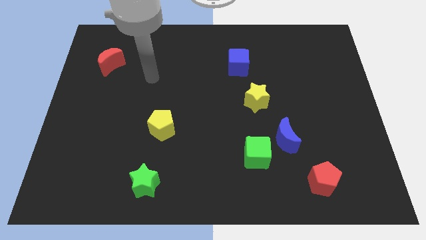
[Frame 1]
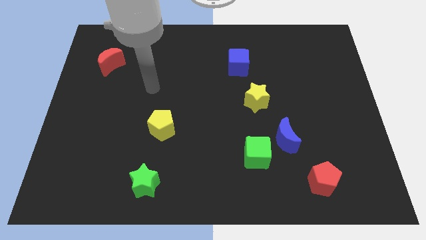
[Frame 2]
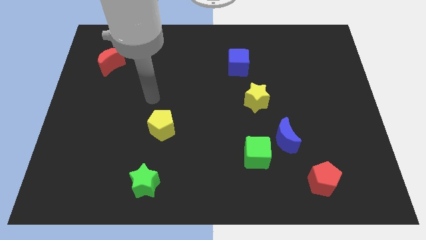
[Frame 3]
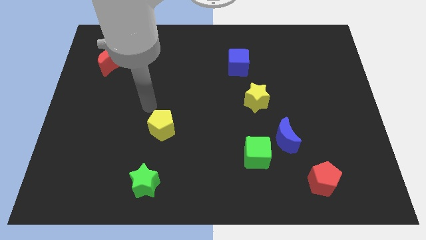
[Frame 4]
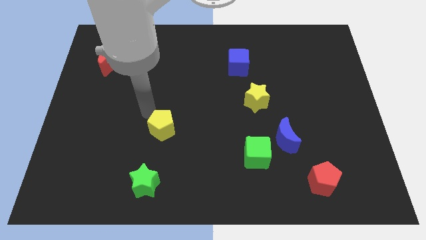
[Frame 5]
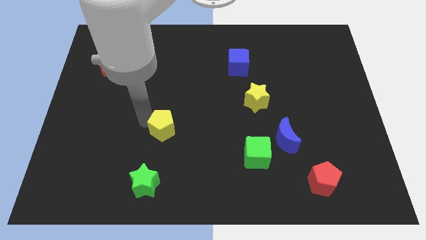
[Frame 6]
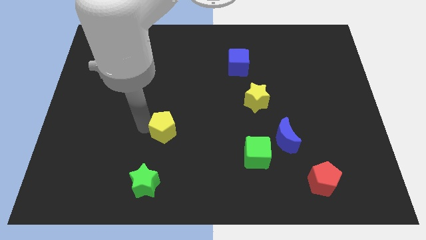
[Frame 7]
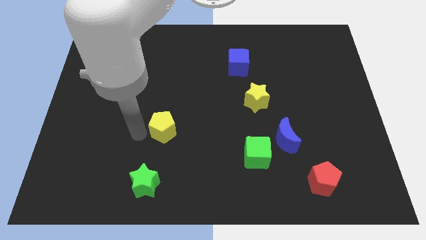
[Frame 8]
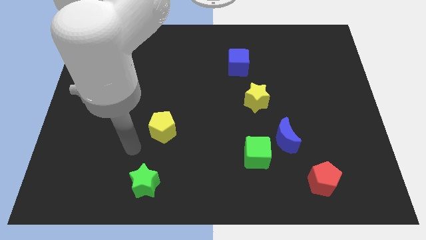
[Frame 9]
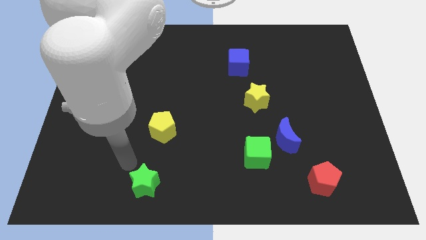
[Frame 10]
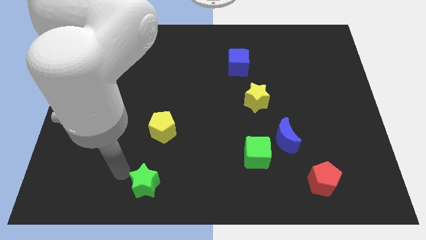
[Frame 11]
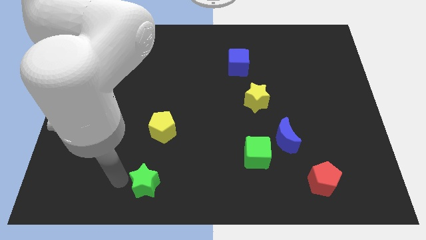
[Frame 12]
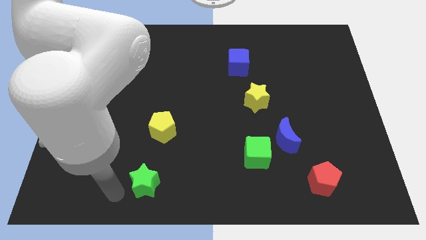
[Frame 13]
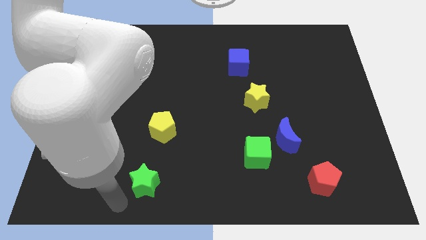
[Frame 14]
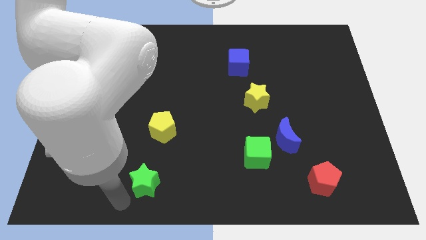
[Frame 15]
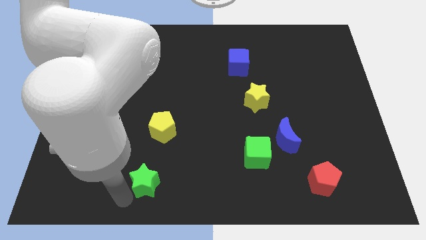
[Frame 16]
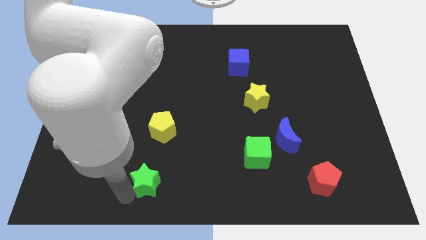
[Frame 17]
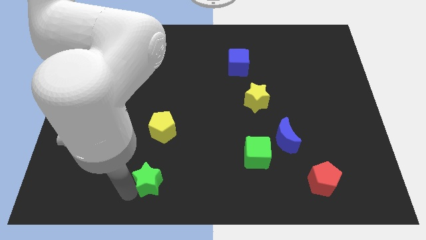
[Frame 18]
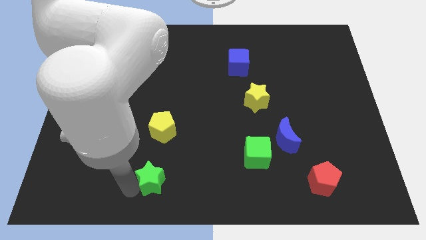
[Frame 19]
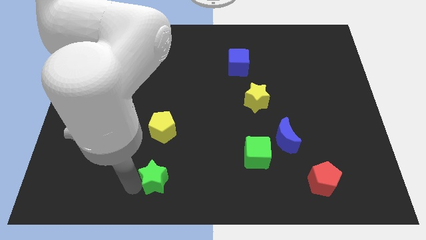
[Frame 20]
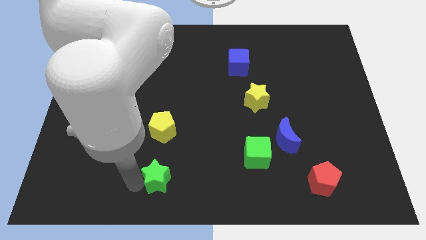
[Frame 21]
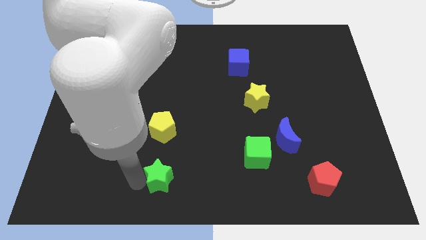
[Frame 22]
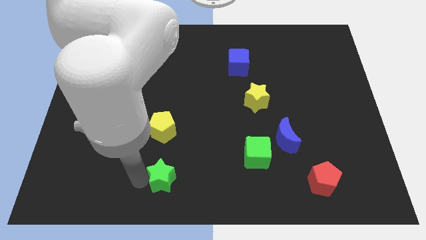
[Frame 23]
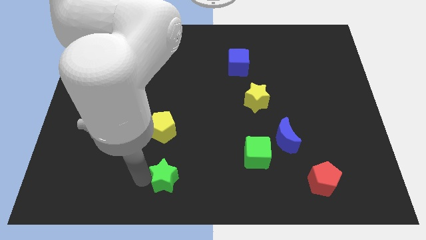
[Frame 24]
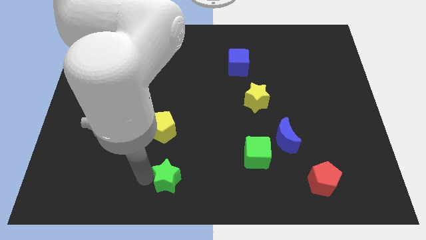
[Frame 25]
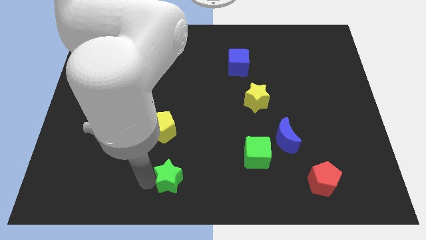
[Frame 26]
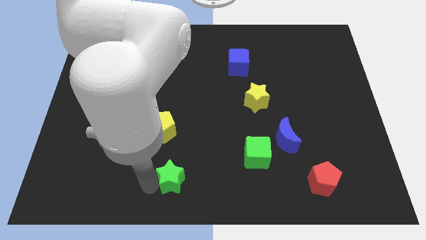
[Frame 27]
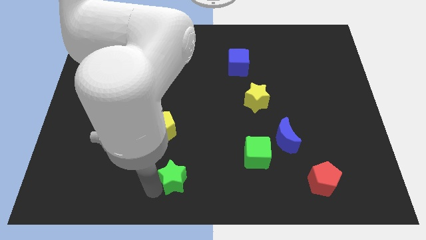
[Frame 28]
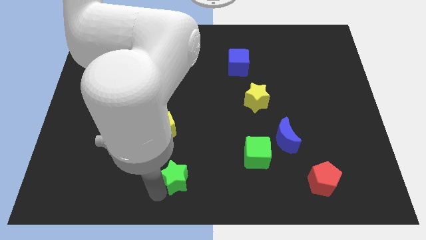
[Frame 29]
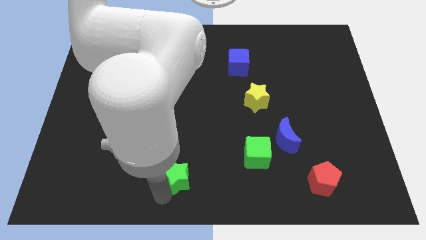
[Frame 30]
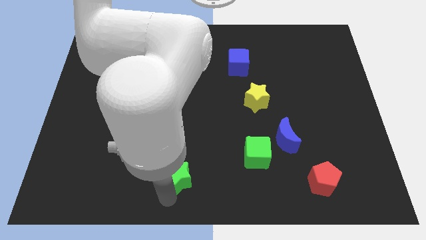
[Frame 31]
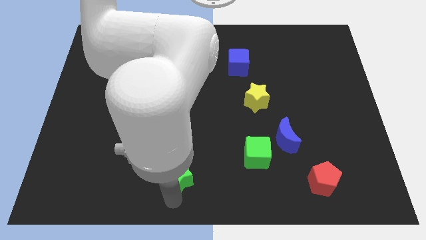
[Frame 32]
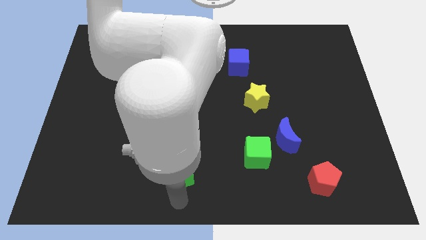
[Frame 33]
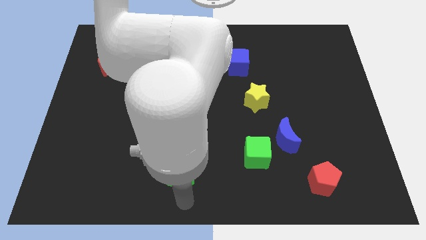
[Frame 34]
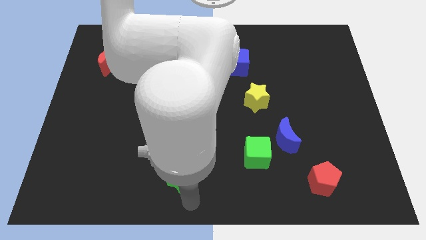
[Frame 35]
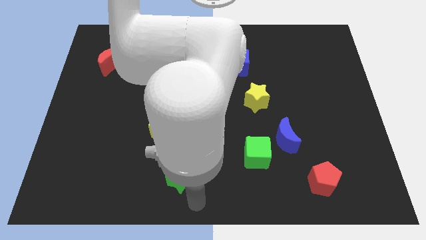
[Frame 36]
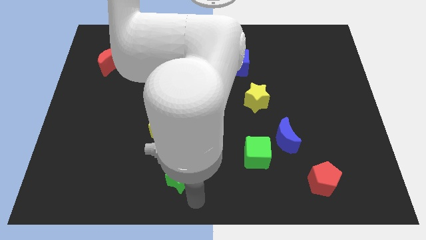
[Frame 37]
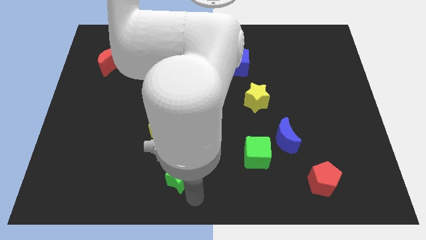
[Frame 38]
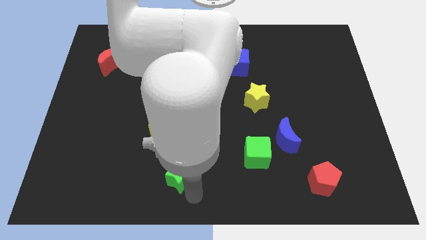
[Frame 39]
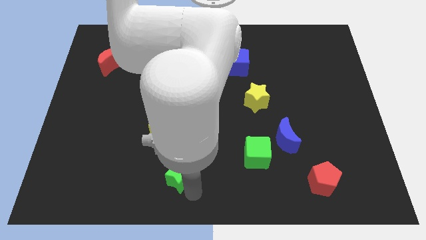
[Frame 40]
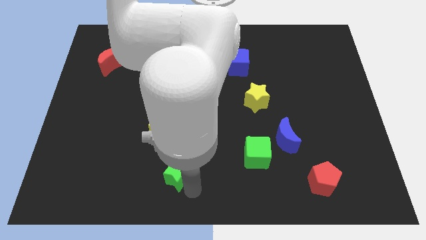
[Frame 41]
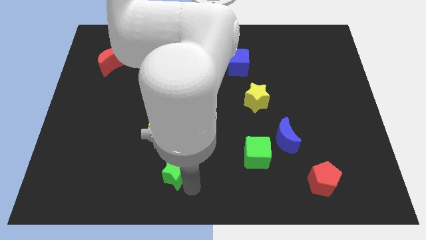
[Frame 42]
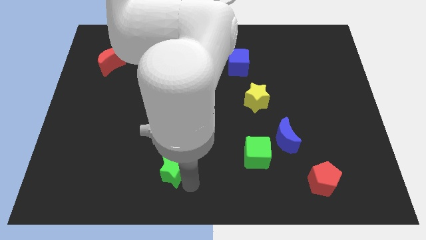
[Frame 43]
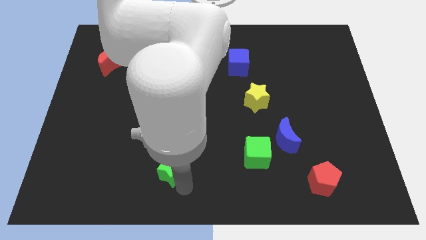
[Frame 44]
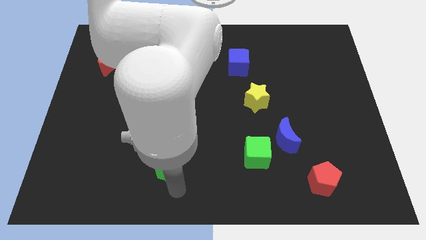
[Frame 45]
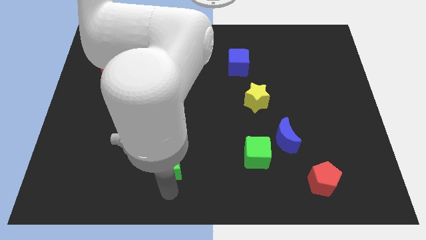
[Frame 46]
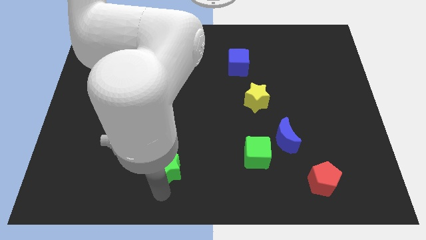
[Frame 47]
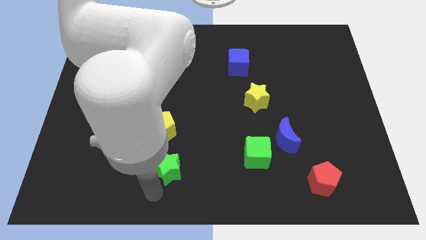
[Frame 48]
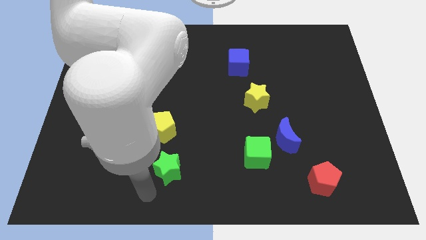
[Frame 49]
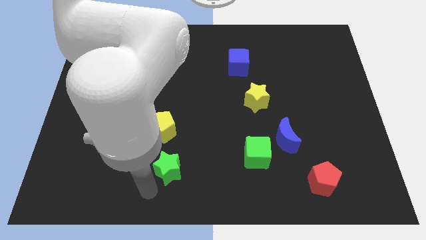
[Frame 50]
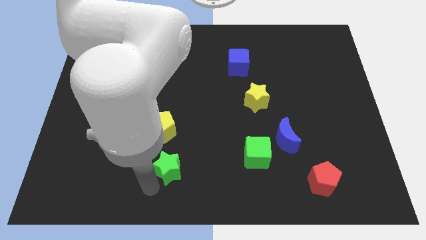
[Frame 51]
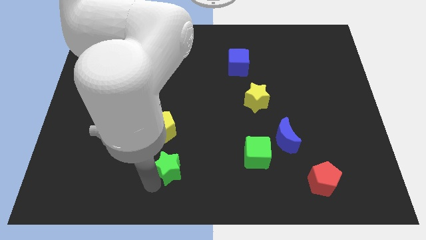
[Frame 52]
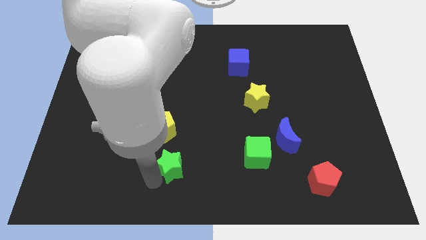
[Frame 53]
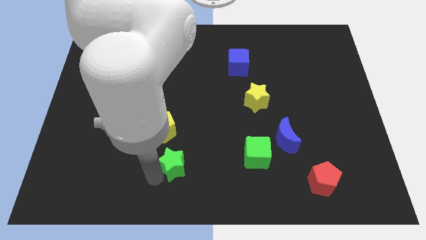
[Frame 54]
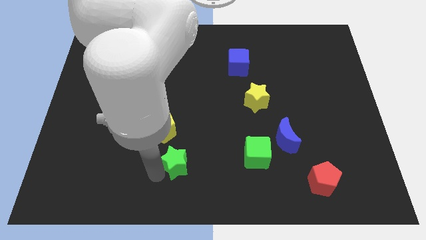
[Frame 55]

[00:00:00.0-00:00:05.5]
move the green star slightly up and then to the right

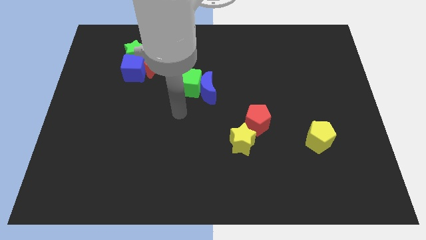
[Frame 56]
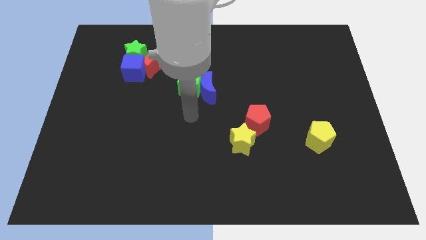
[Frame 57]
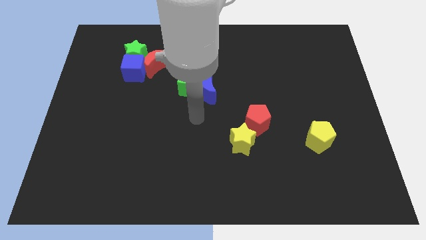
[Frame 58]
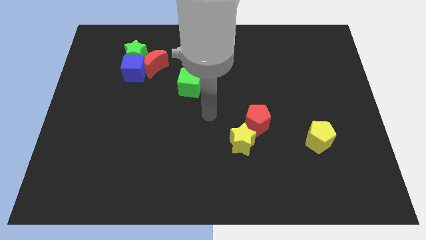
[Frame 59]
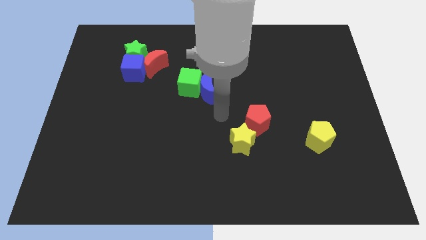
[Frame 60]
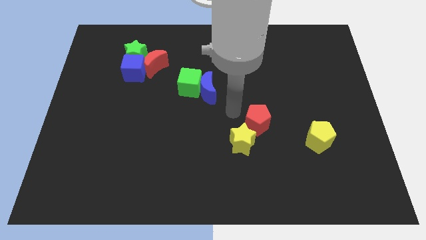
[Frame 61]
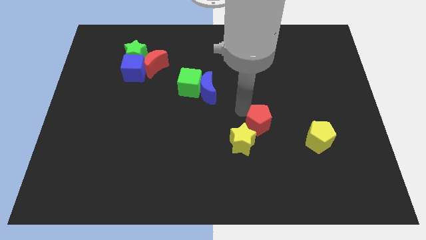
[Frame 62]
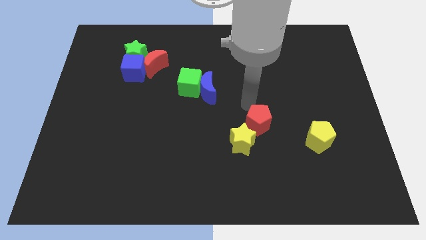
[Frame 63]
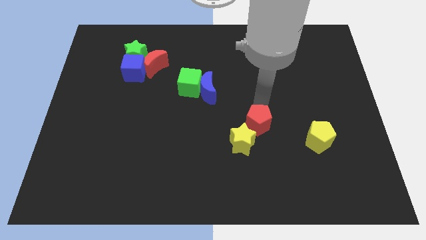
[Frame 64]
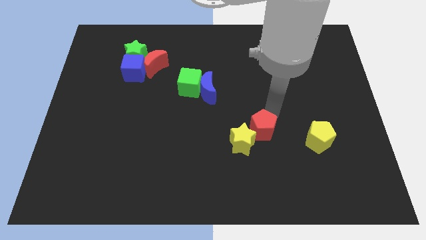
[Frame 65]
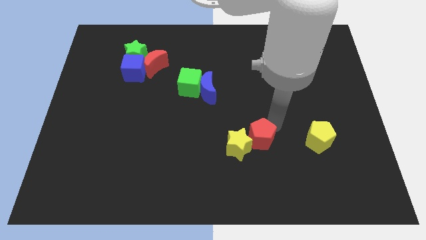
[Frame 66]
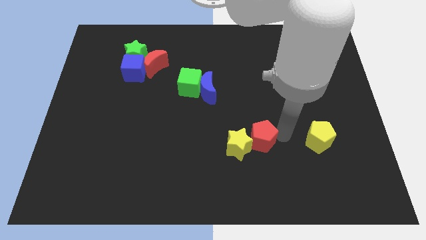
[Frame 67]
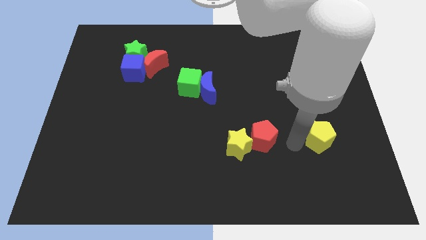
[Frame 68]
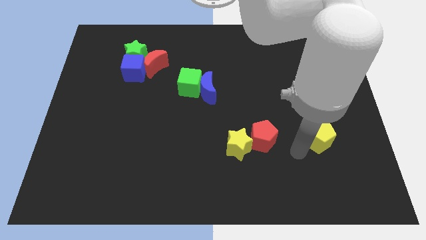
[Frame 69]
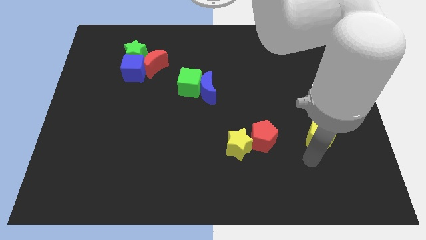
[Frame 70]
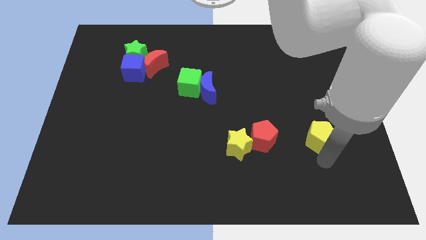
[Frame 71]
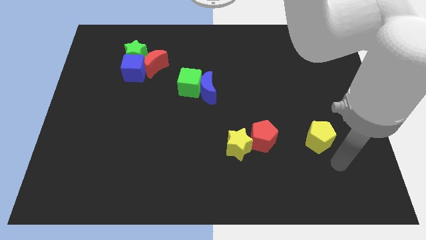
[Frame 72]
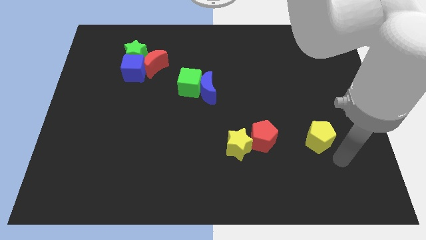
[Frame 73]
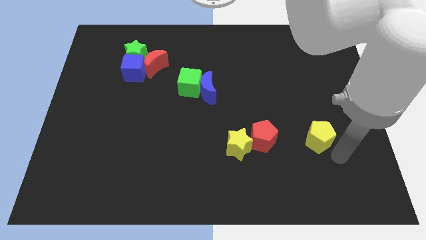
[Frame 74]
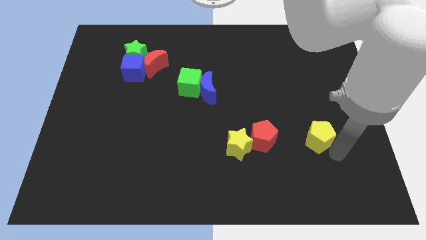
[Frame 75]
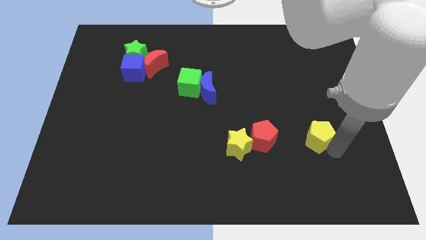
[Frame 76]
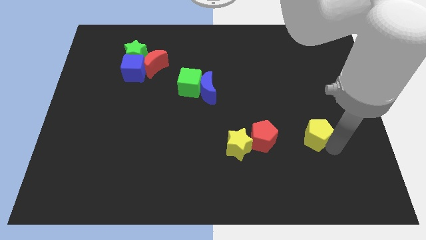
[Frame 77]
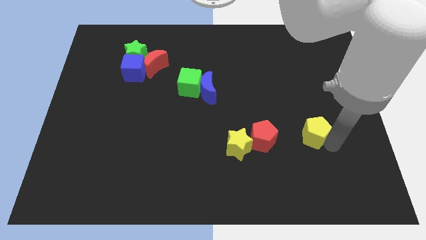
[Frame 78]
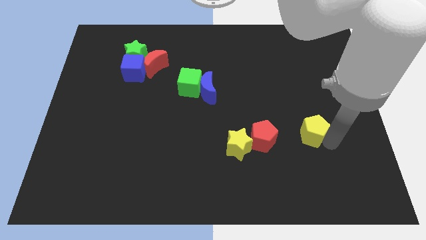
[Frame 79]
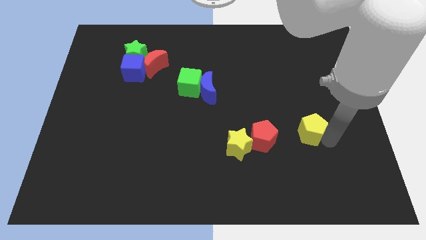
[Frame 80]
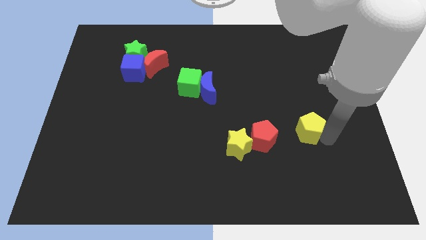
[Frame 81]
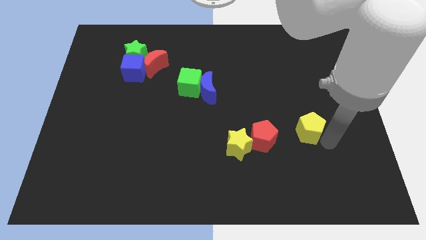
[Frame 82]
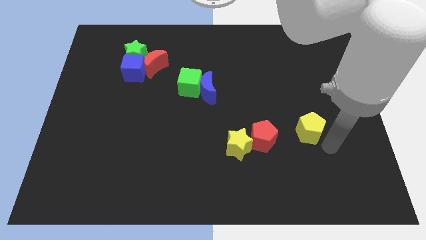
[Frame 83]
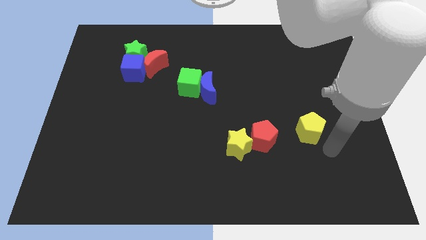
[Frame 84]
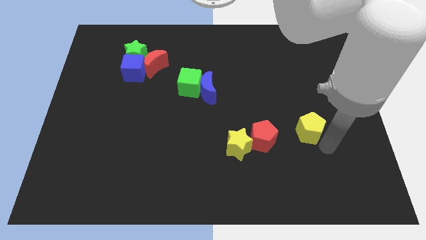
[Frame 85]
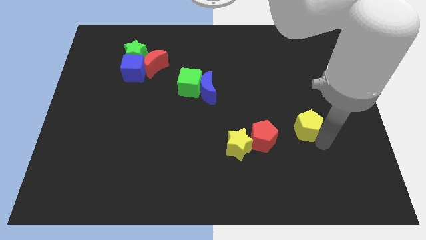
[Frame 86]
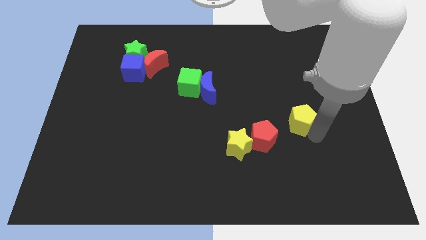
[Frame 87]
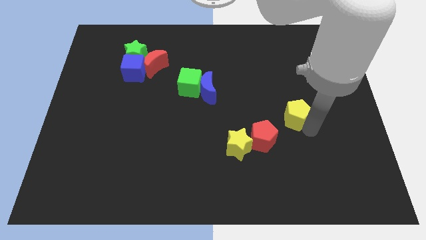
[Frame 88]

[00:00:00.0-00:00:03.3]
move the yellow pentagon up and then to the left somewhat
